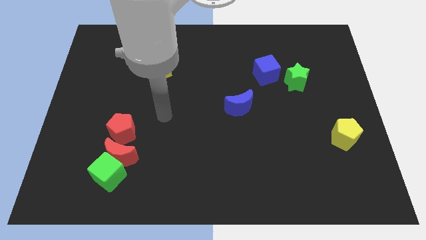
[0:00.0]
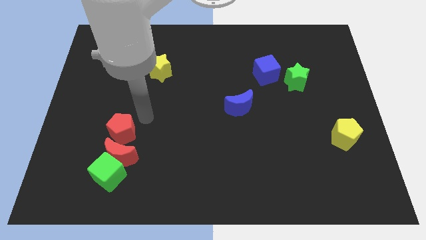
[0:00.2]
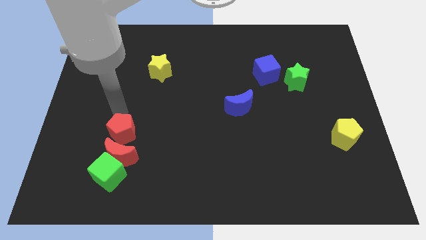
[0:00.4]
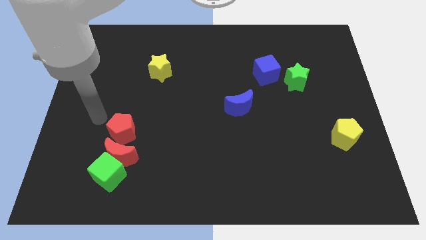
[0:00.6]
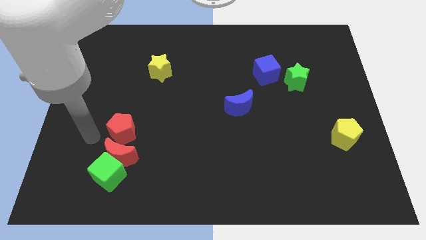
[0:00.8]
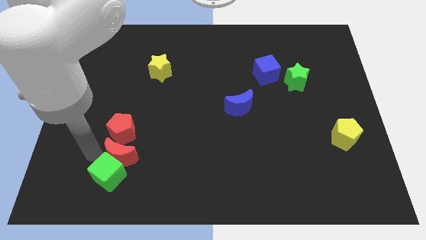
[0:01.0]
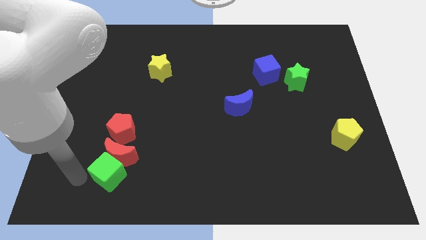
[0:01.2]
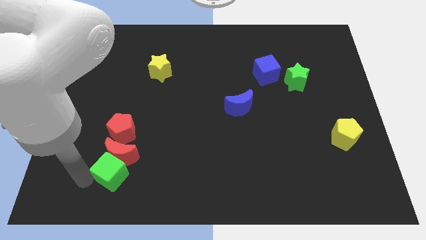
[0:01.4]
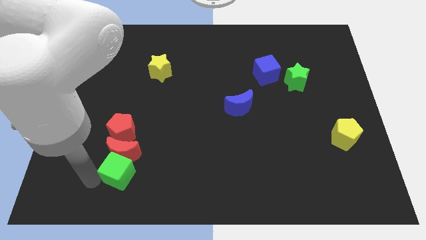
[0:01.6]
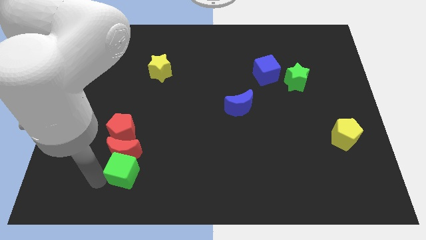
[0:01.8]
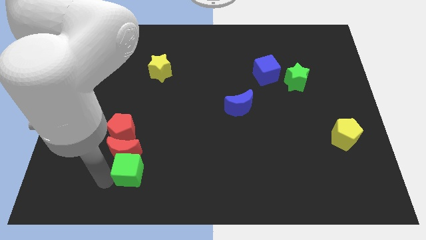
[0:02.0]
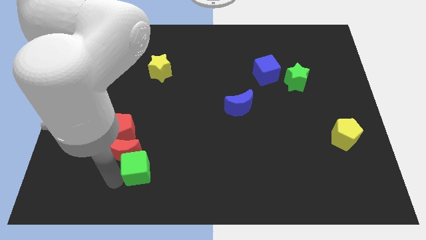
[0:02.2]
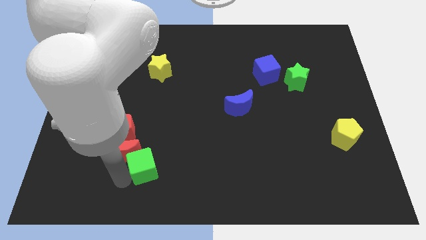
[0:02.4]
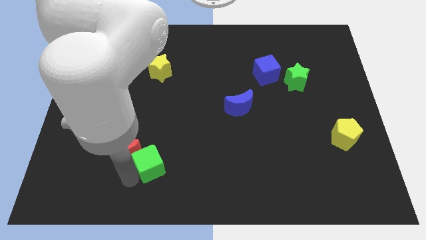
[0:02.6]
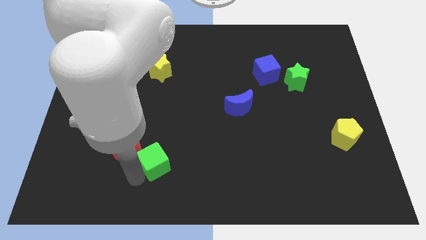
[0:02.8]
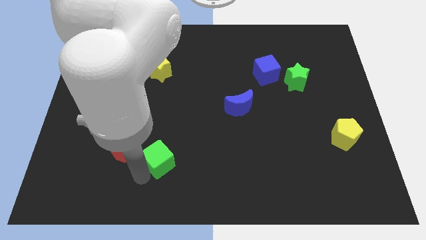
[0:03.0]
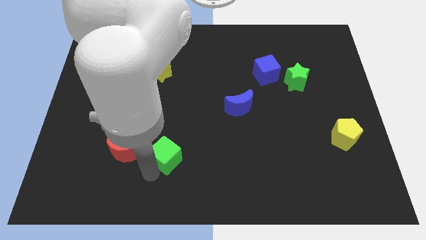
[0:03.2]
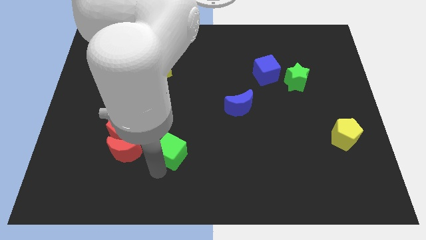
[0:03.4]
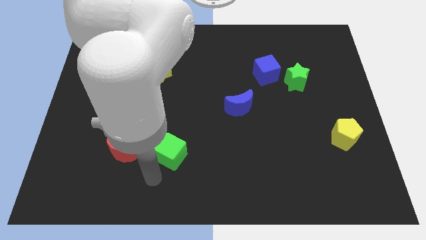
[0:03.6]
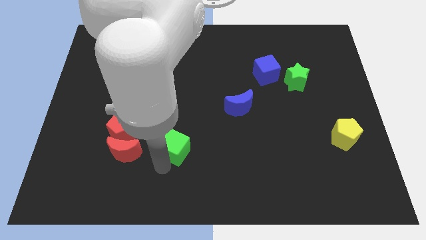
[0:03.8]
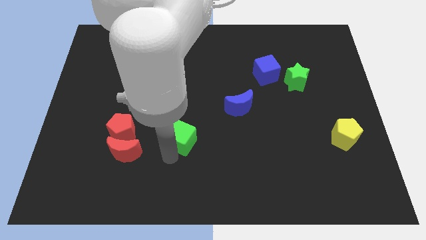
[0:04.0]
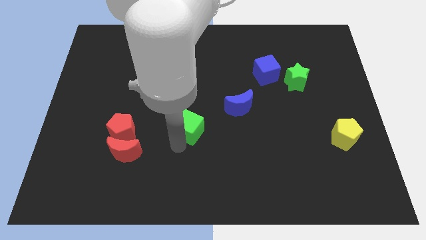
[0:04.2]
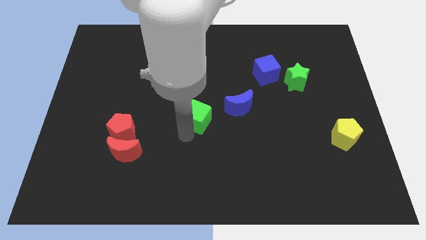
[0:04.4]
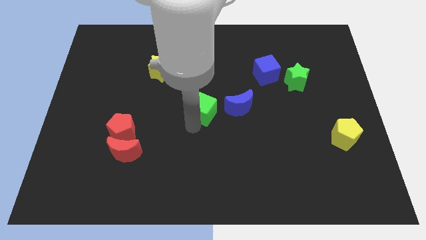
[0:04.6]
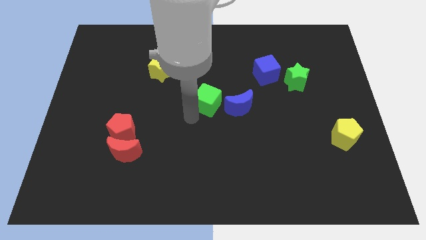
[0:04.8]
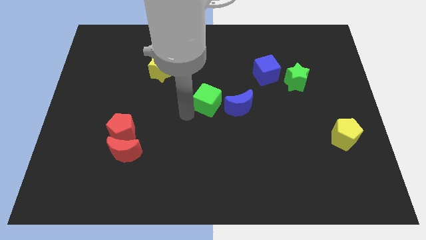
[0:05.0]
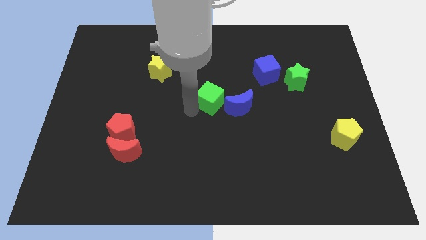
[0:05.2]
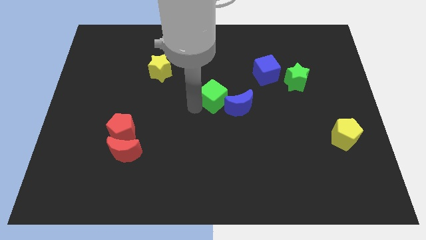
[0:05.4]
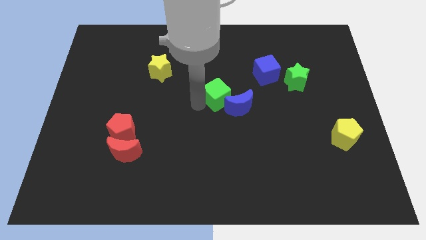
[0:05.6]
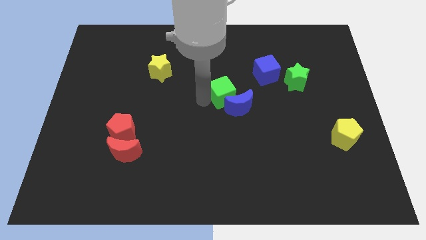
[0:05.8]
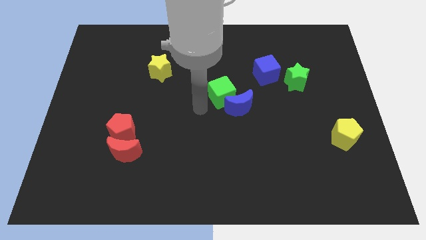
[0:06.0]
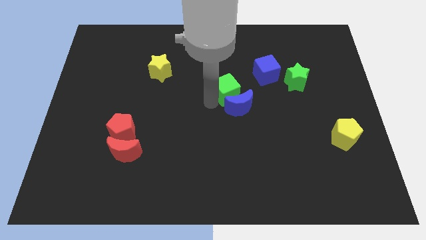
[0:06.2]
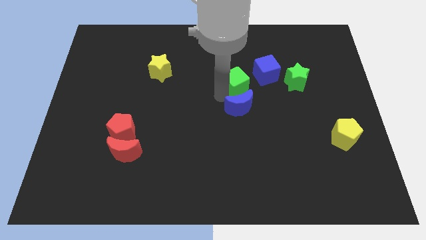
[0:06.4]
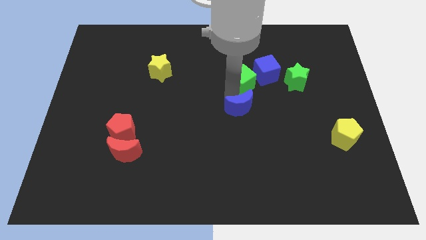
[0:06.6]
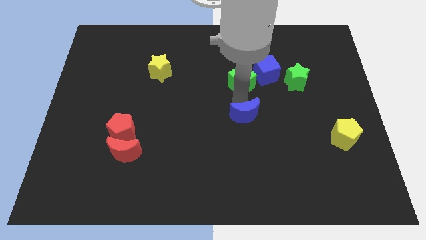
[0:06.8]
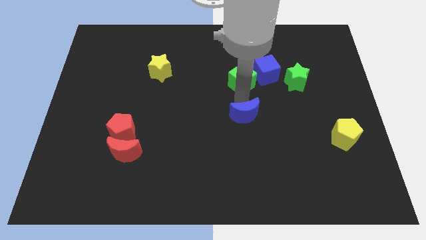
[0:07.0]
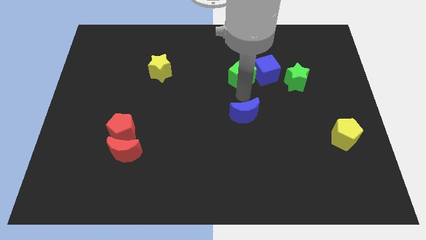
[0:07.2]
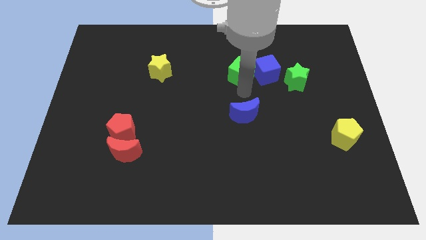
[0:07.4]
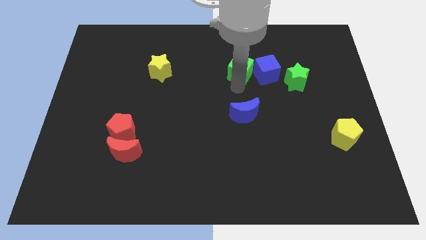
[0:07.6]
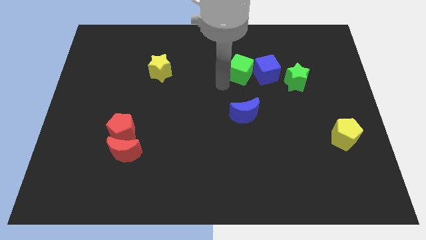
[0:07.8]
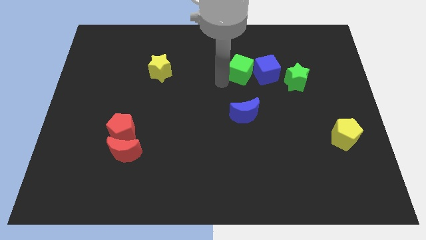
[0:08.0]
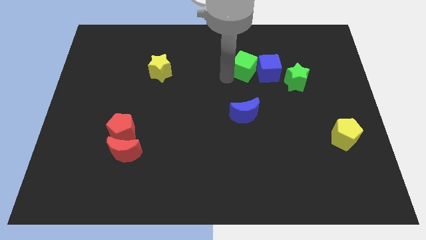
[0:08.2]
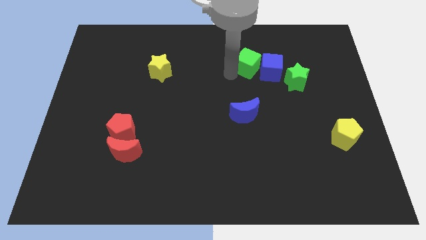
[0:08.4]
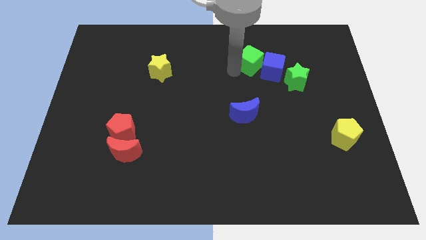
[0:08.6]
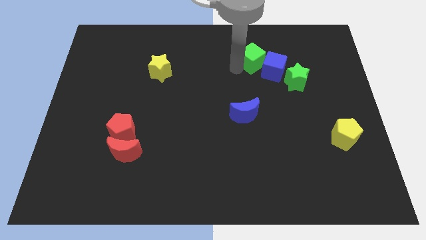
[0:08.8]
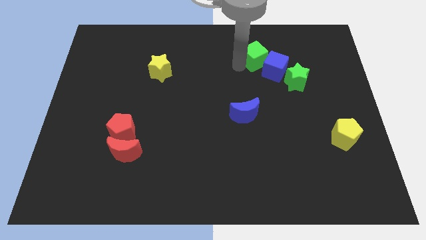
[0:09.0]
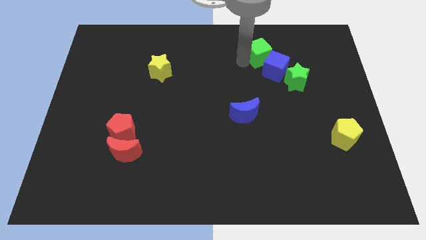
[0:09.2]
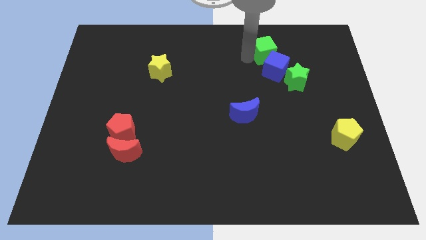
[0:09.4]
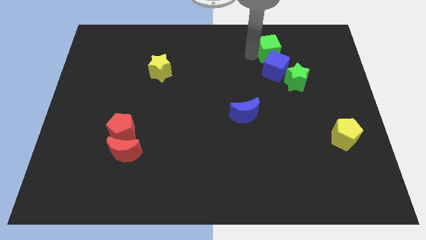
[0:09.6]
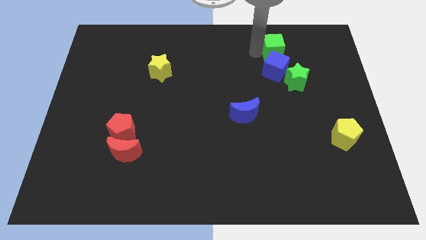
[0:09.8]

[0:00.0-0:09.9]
push the green cube diagonally up and to the right of the blue cube

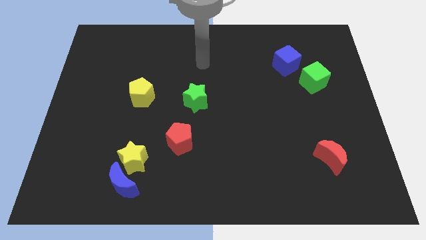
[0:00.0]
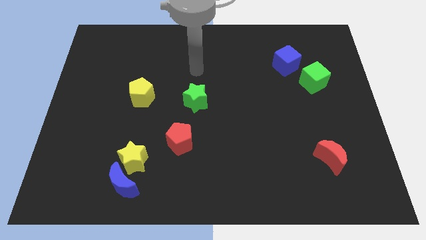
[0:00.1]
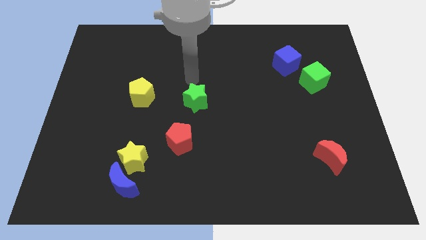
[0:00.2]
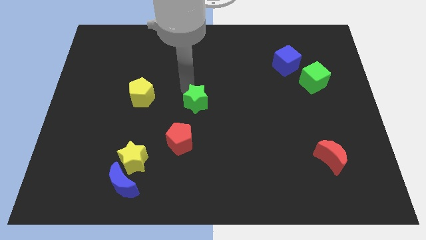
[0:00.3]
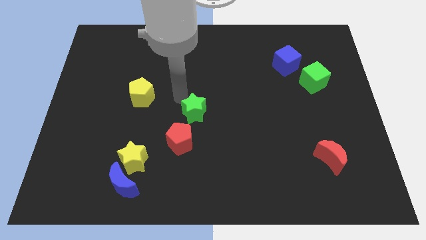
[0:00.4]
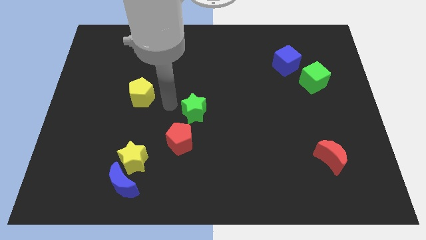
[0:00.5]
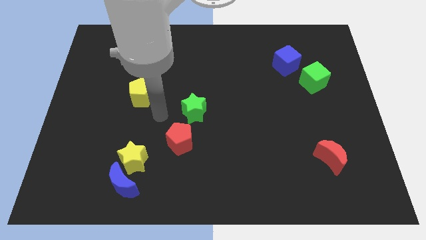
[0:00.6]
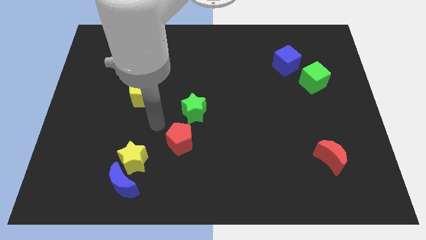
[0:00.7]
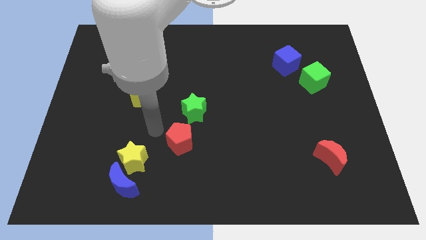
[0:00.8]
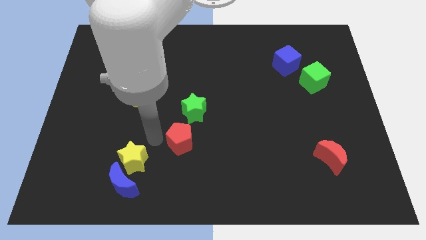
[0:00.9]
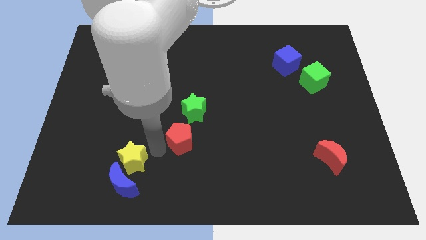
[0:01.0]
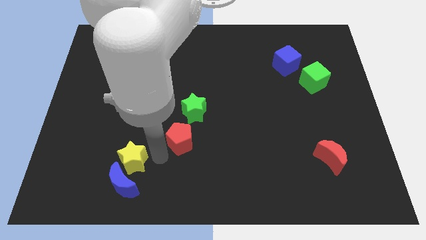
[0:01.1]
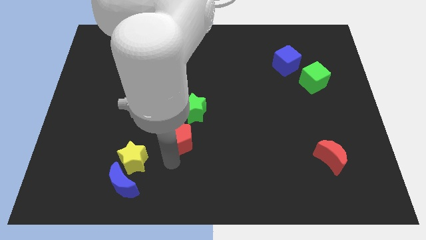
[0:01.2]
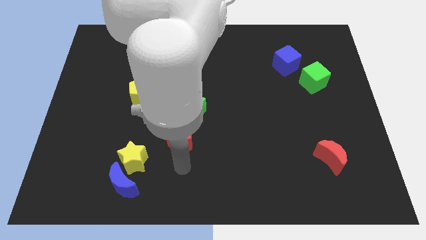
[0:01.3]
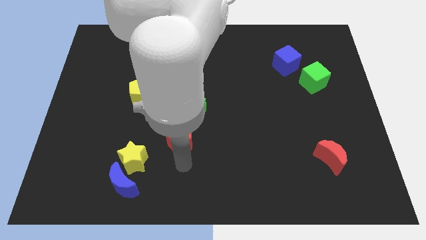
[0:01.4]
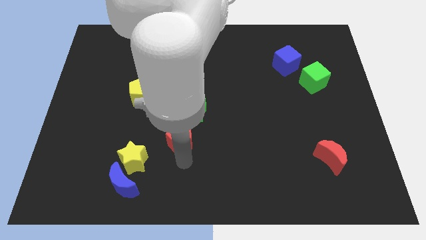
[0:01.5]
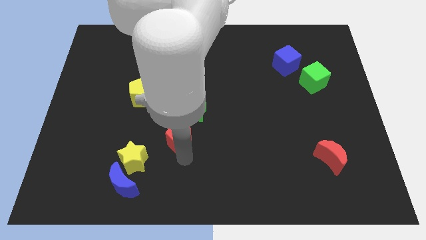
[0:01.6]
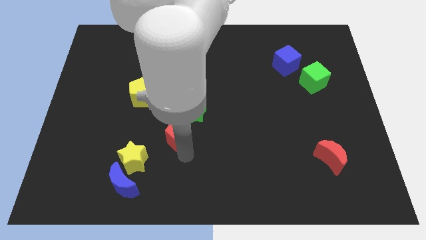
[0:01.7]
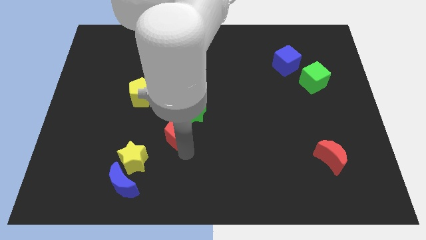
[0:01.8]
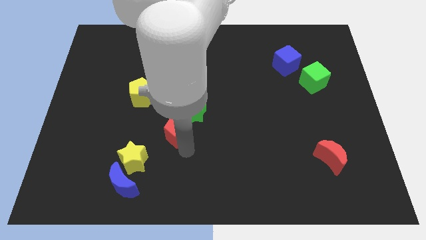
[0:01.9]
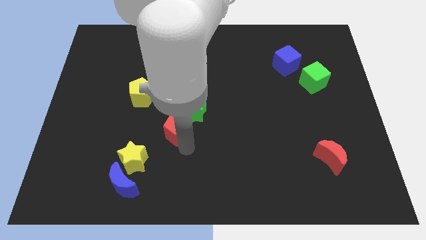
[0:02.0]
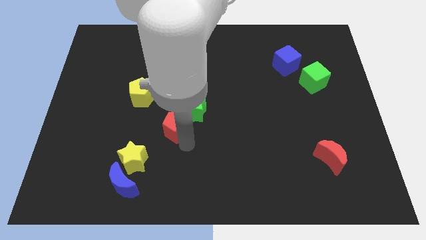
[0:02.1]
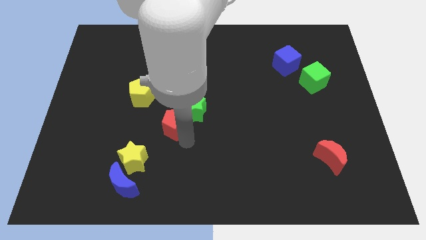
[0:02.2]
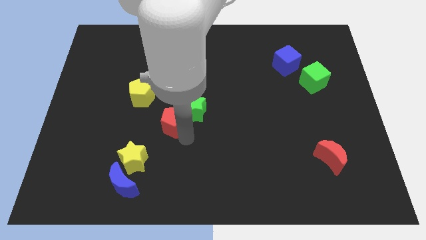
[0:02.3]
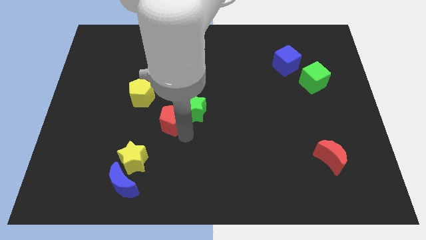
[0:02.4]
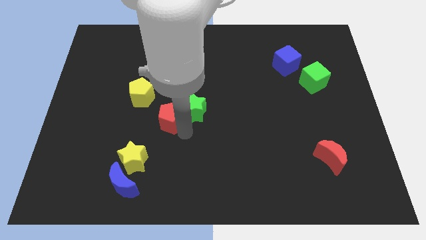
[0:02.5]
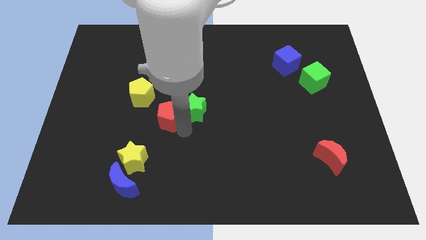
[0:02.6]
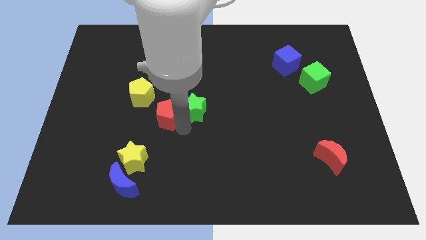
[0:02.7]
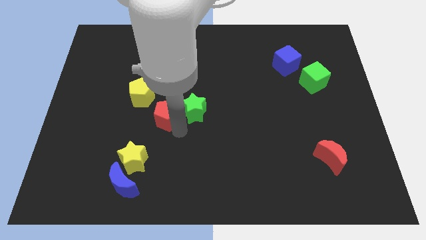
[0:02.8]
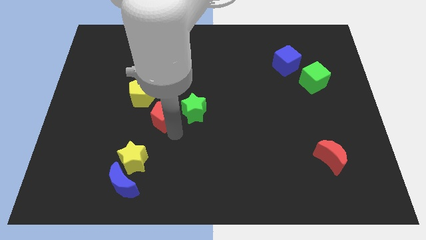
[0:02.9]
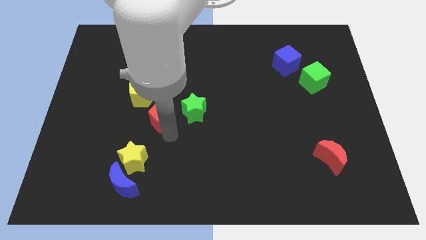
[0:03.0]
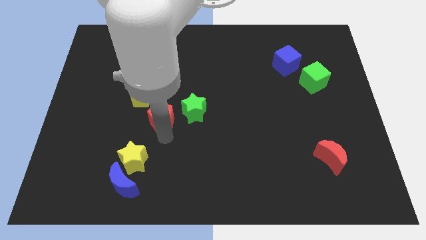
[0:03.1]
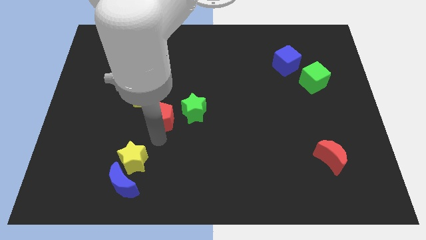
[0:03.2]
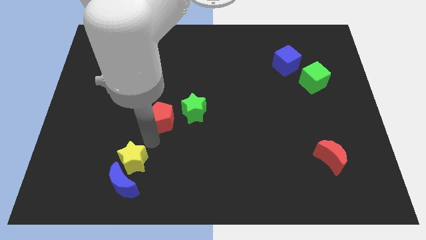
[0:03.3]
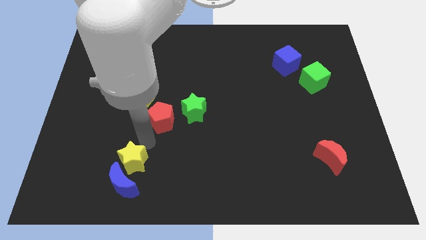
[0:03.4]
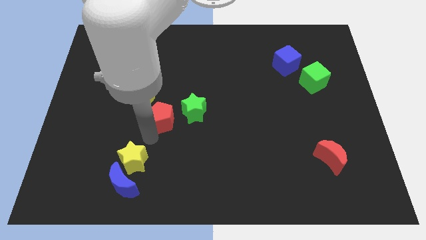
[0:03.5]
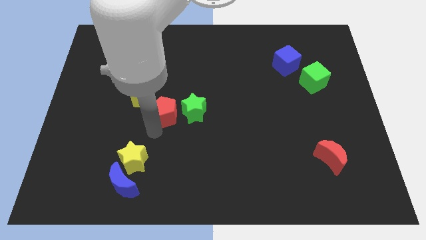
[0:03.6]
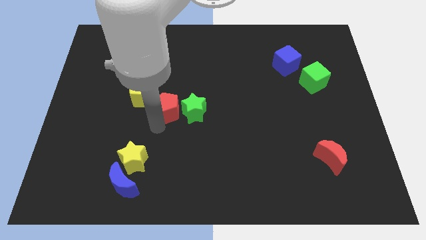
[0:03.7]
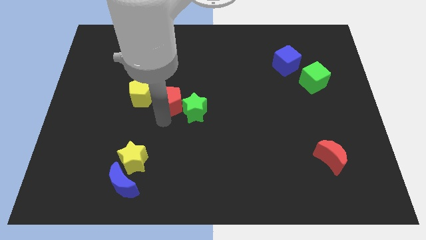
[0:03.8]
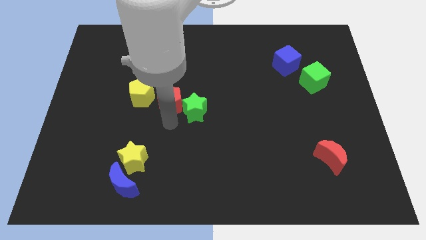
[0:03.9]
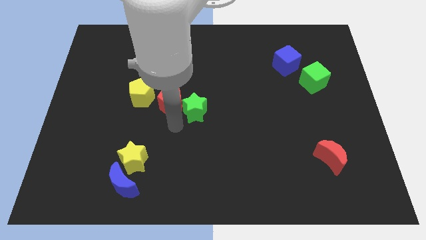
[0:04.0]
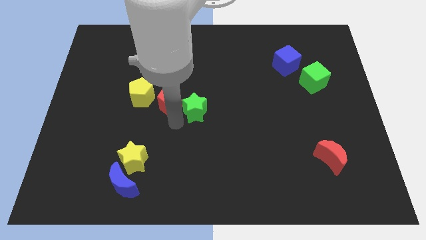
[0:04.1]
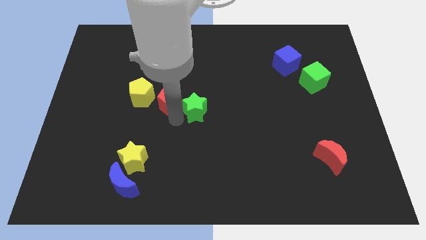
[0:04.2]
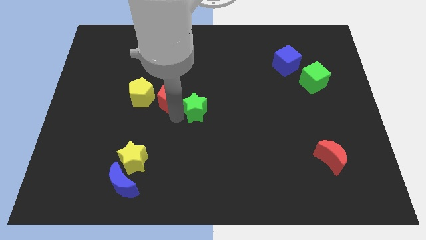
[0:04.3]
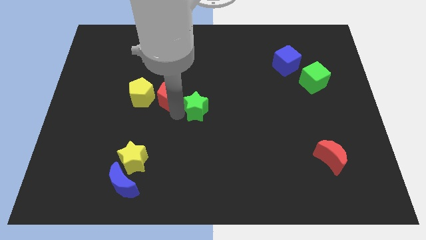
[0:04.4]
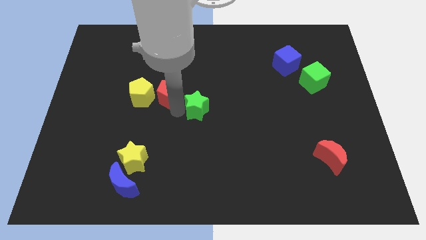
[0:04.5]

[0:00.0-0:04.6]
put the red pentagon to the top right of the yellow pentagon
